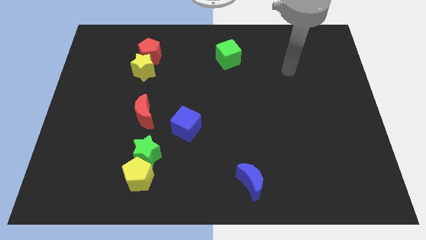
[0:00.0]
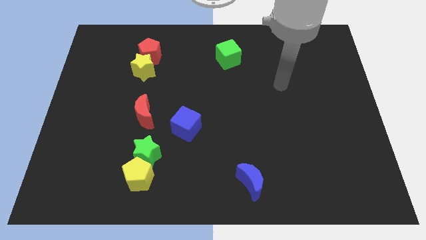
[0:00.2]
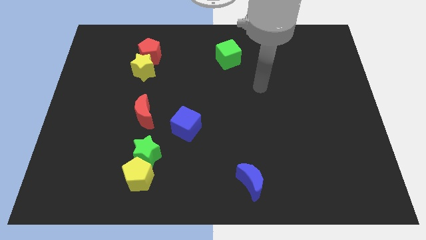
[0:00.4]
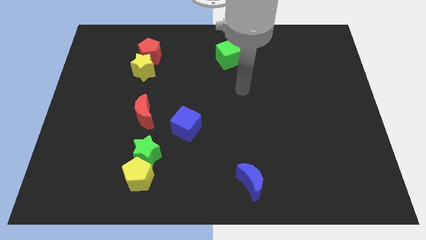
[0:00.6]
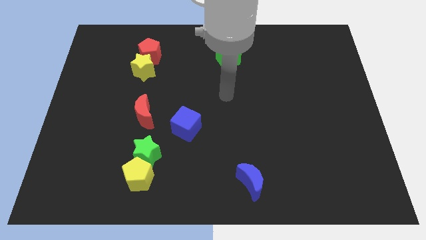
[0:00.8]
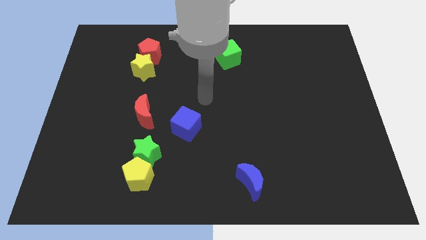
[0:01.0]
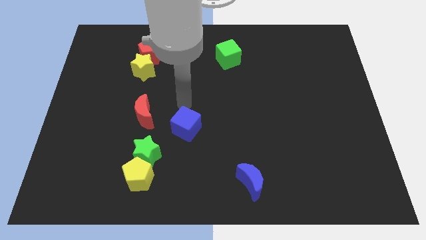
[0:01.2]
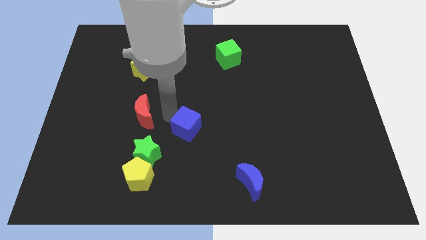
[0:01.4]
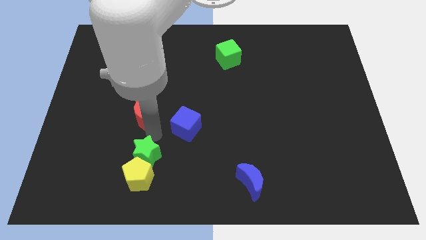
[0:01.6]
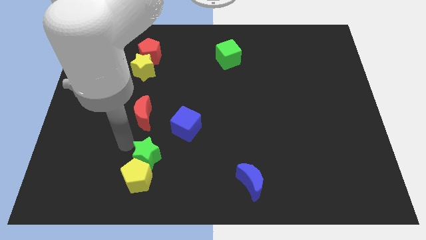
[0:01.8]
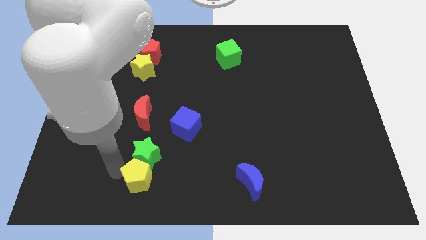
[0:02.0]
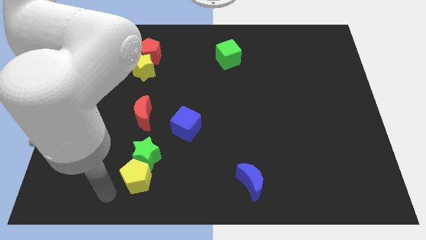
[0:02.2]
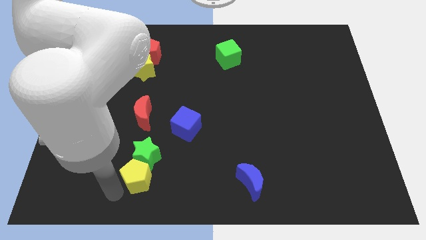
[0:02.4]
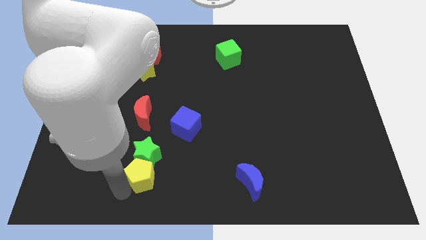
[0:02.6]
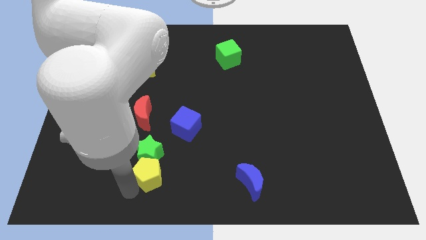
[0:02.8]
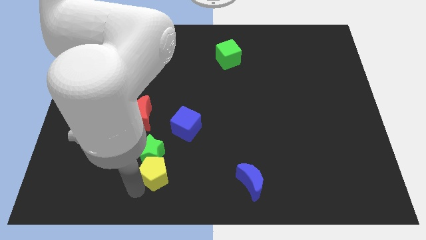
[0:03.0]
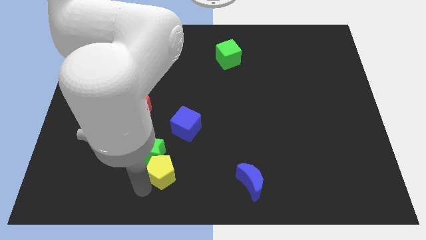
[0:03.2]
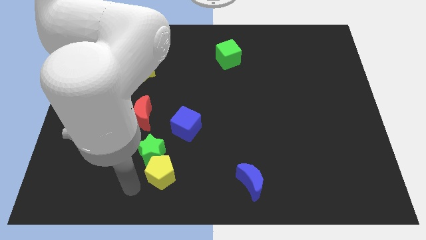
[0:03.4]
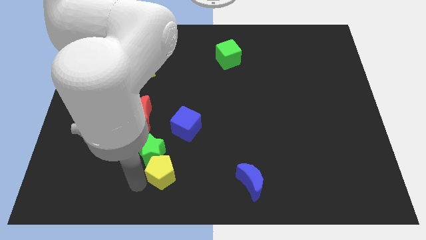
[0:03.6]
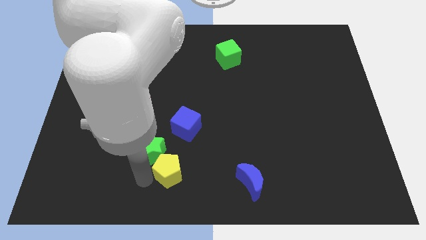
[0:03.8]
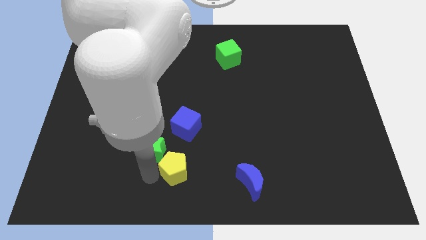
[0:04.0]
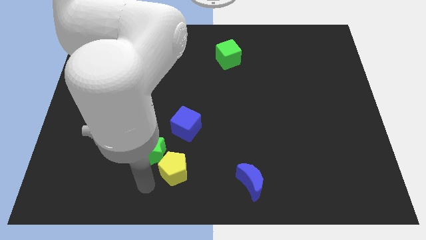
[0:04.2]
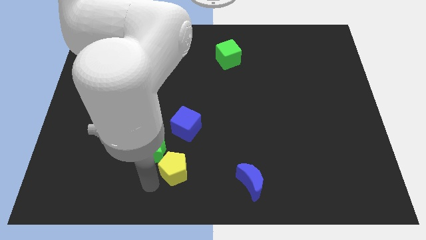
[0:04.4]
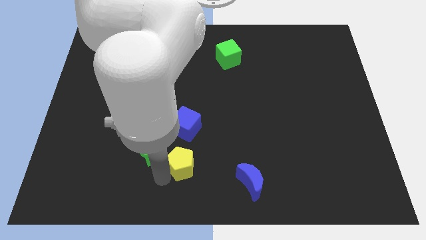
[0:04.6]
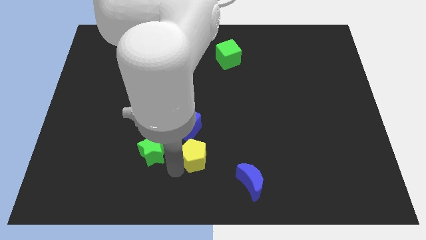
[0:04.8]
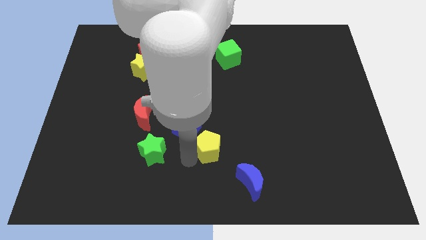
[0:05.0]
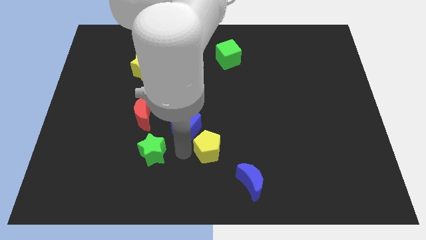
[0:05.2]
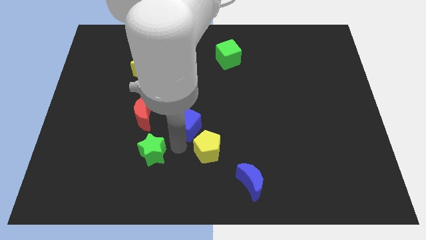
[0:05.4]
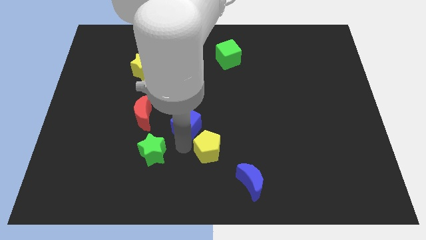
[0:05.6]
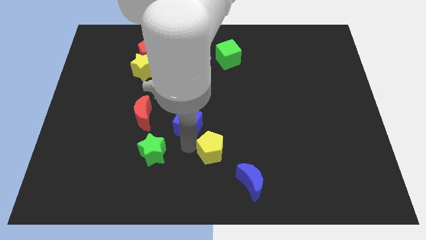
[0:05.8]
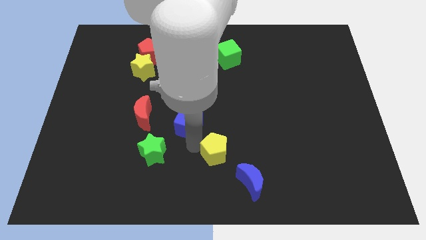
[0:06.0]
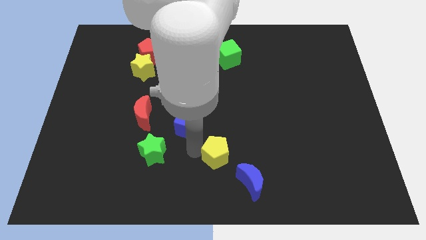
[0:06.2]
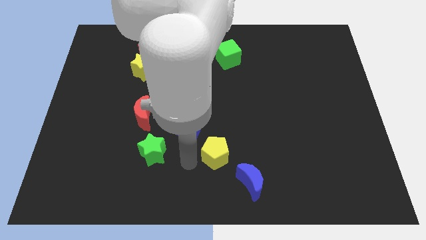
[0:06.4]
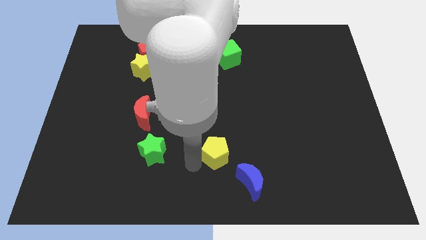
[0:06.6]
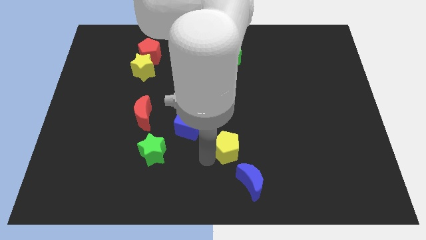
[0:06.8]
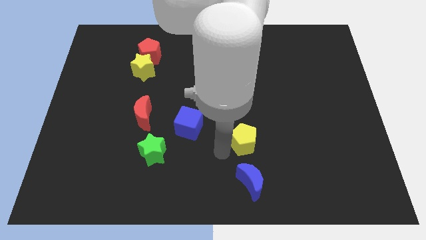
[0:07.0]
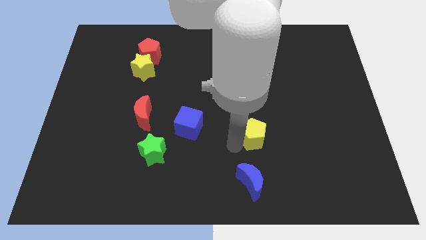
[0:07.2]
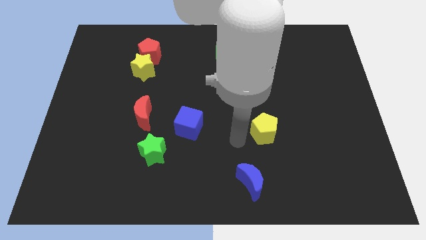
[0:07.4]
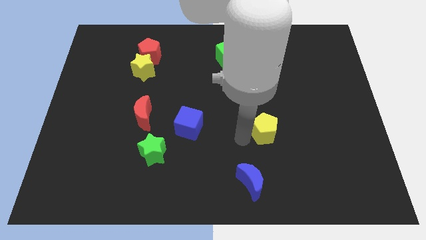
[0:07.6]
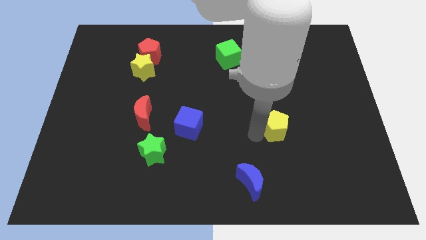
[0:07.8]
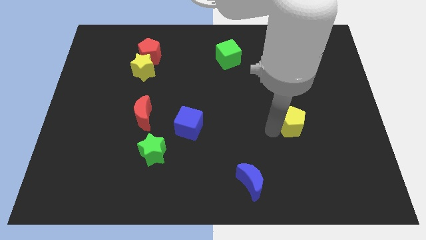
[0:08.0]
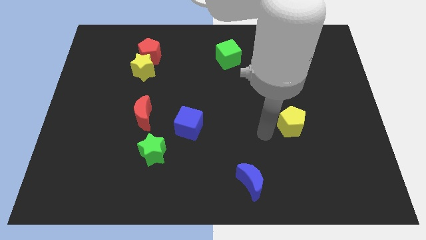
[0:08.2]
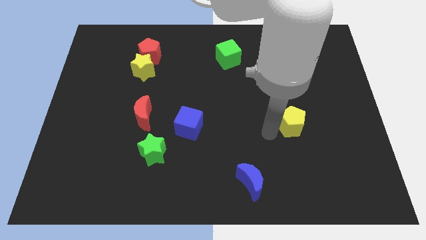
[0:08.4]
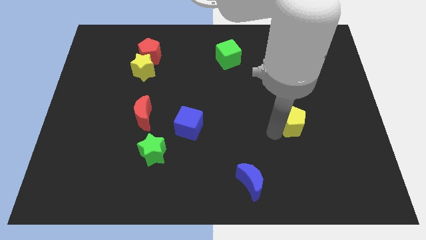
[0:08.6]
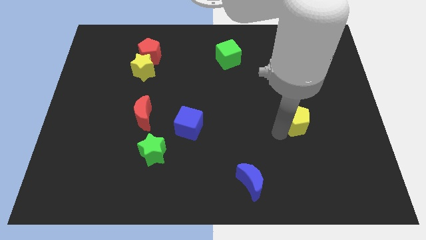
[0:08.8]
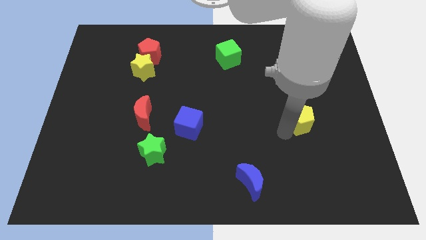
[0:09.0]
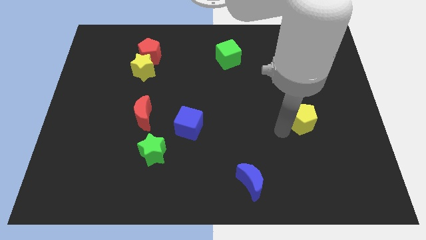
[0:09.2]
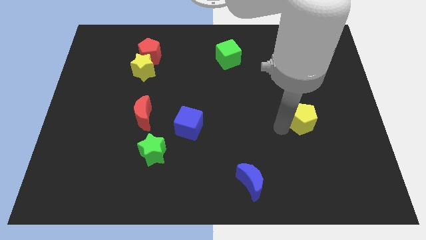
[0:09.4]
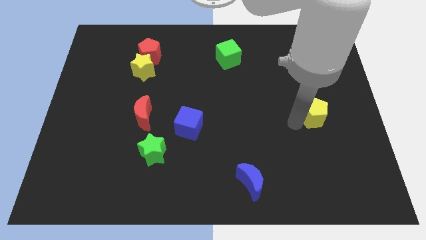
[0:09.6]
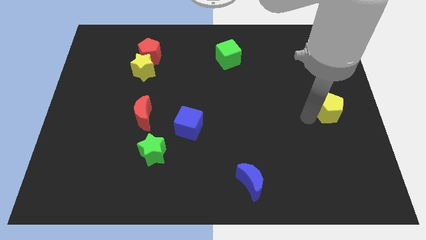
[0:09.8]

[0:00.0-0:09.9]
move the yellow pentagon to the right side

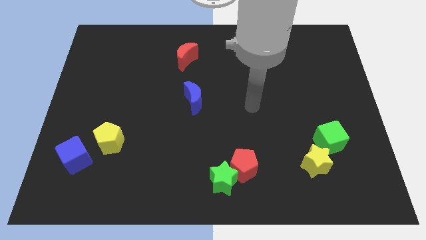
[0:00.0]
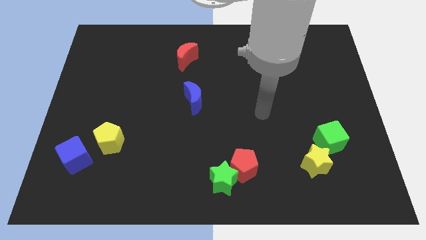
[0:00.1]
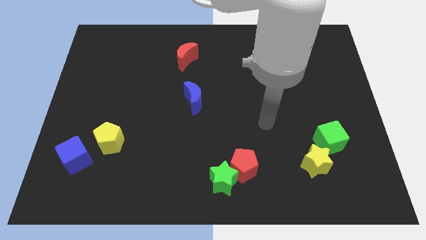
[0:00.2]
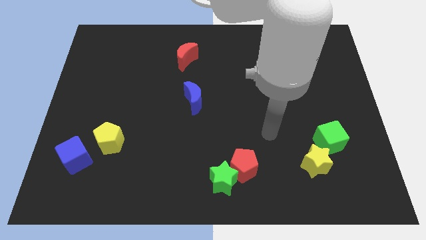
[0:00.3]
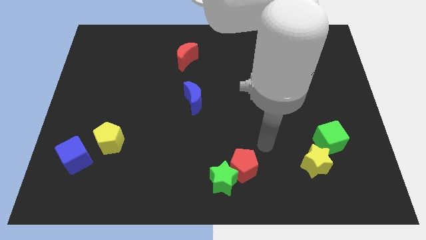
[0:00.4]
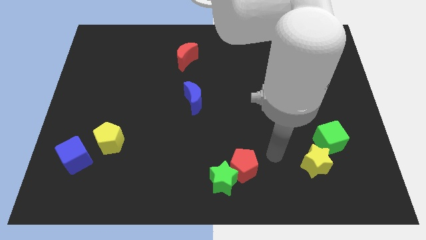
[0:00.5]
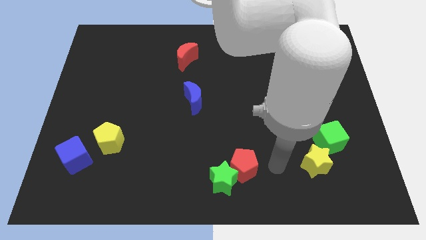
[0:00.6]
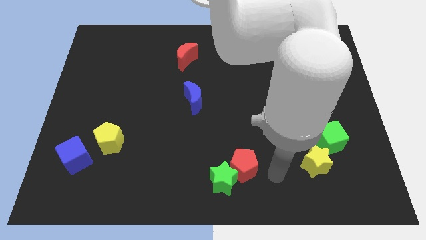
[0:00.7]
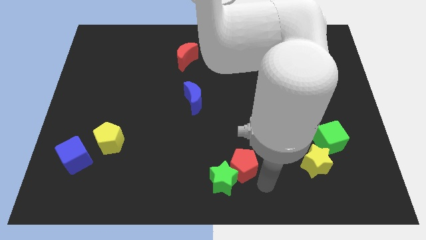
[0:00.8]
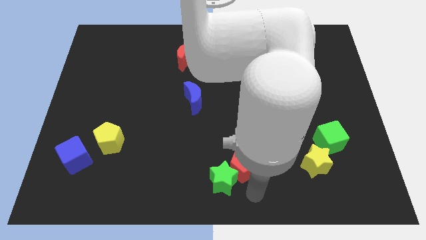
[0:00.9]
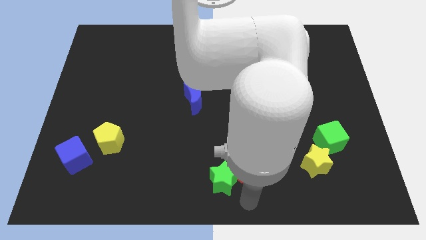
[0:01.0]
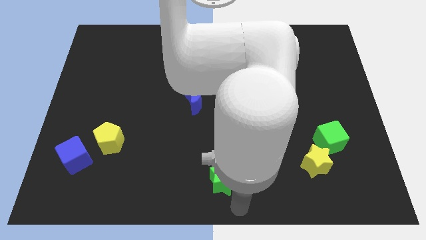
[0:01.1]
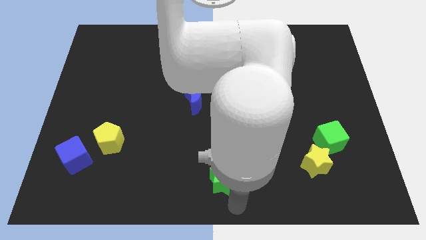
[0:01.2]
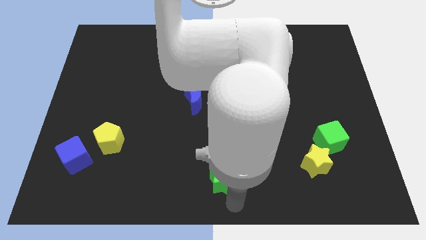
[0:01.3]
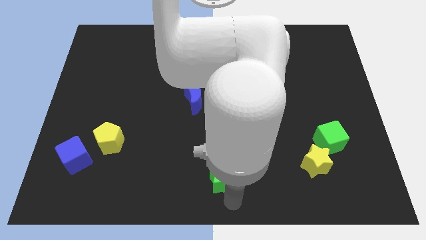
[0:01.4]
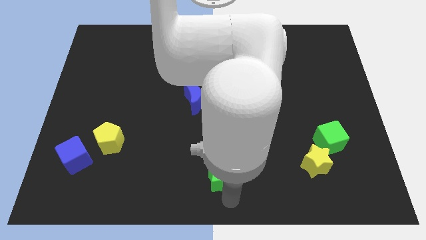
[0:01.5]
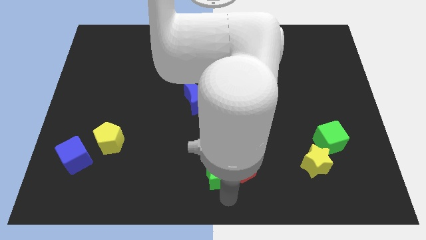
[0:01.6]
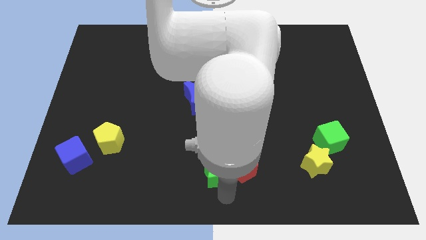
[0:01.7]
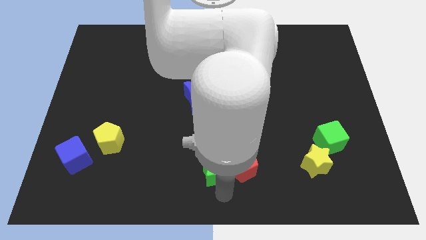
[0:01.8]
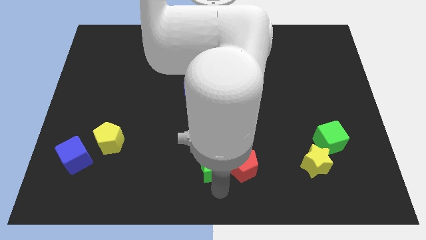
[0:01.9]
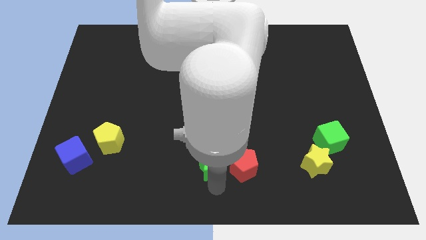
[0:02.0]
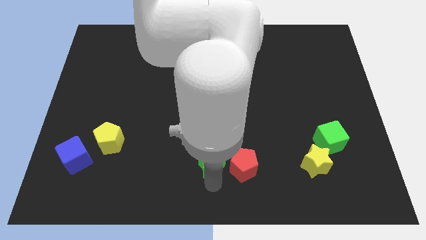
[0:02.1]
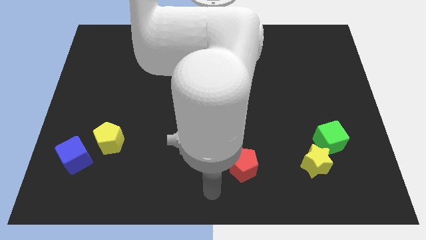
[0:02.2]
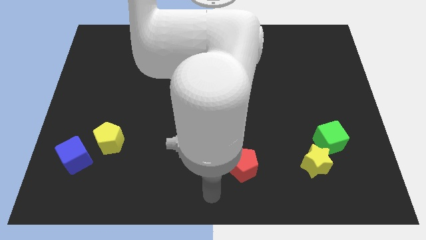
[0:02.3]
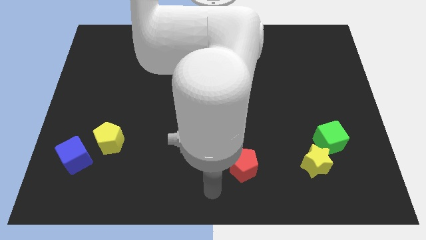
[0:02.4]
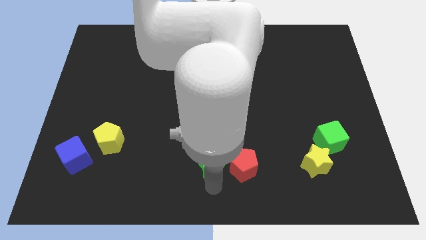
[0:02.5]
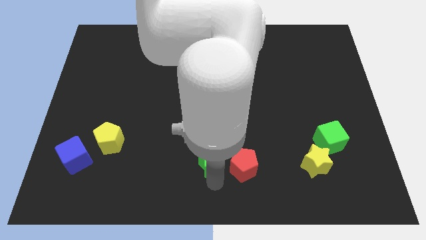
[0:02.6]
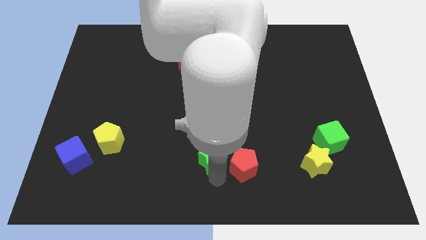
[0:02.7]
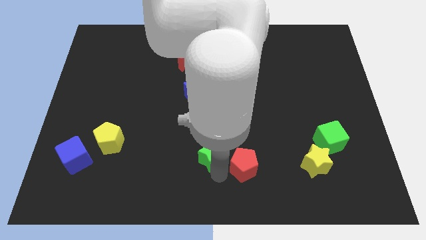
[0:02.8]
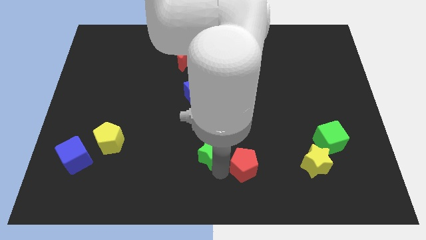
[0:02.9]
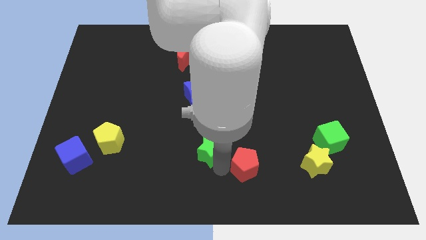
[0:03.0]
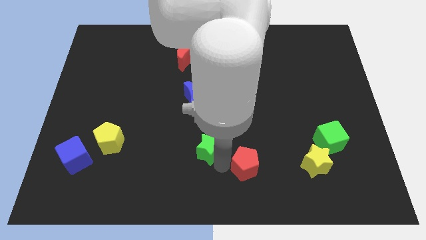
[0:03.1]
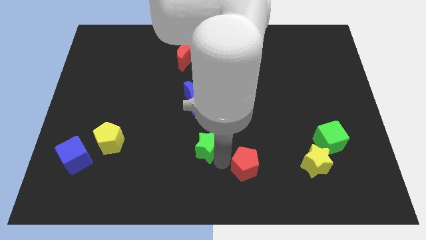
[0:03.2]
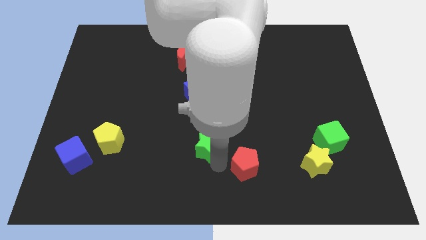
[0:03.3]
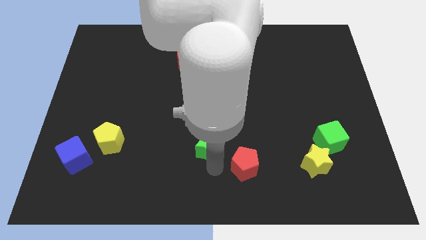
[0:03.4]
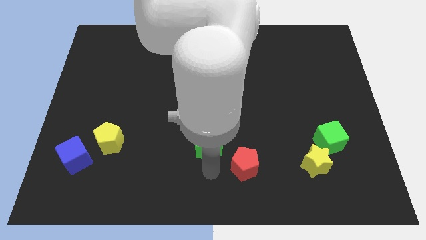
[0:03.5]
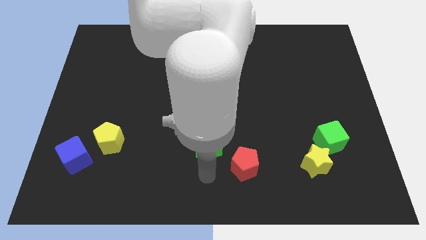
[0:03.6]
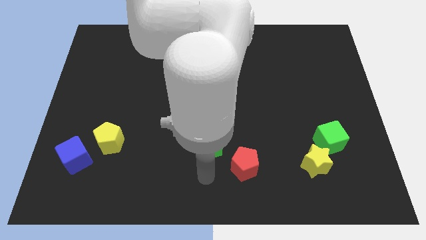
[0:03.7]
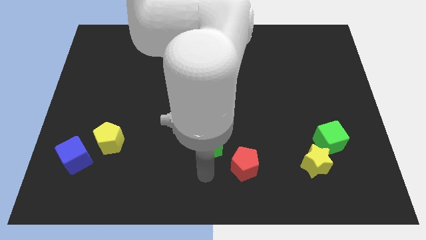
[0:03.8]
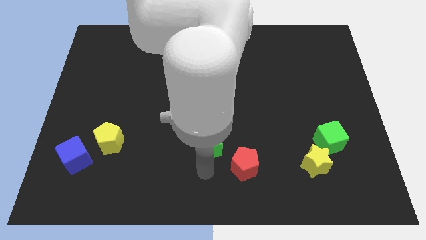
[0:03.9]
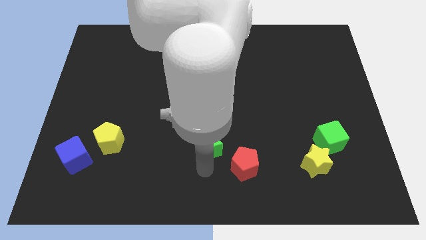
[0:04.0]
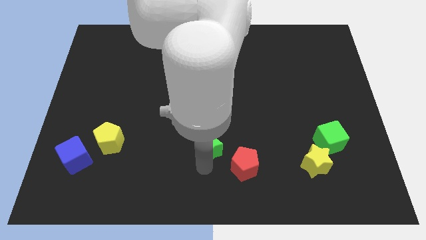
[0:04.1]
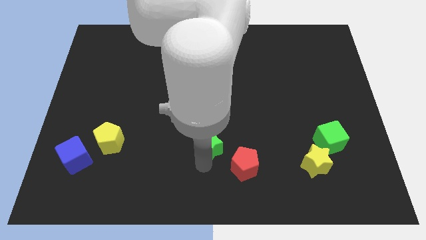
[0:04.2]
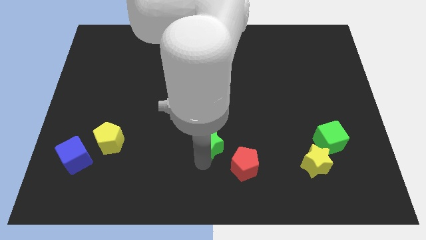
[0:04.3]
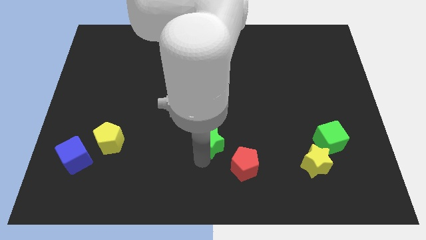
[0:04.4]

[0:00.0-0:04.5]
put the green star to the center
